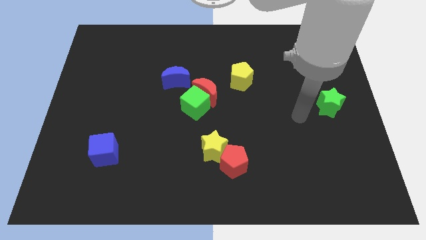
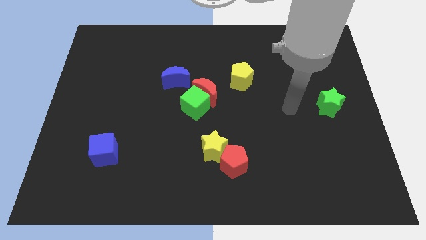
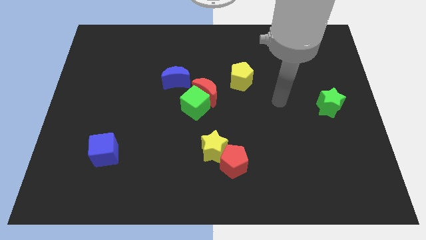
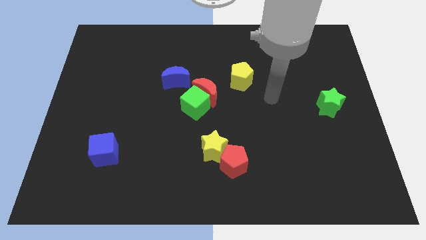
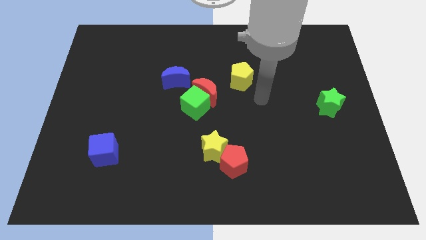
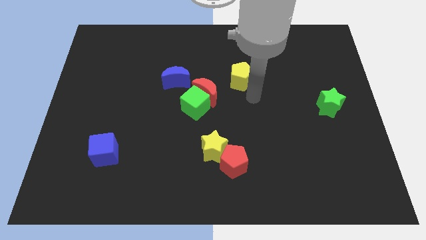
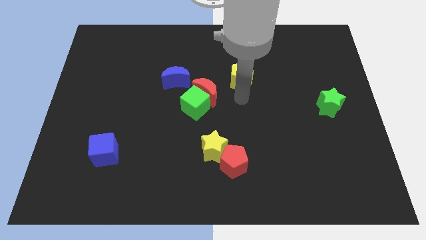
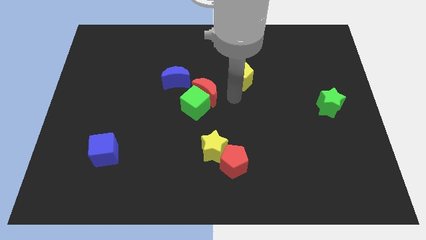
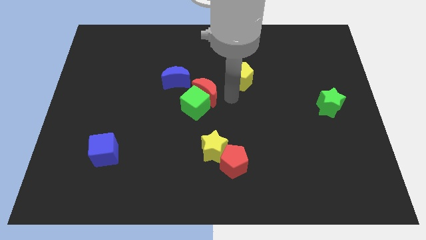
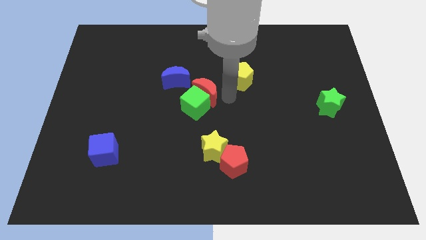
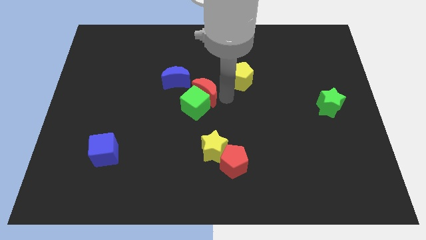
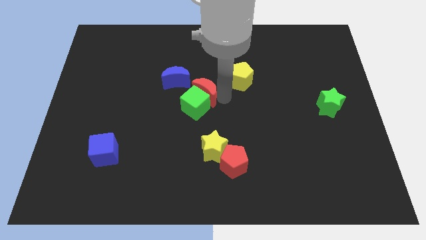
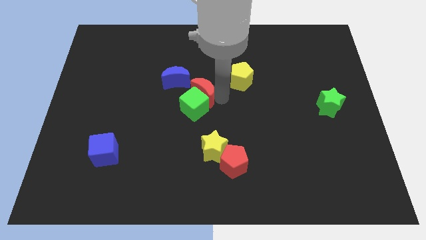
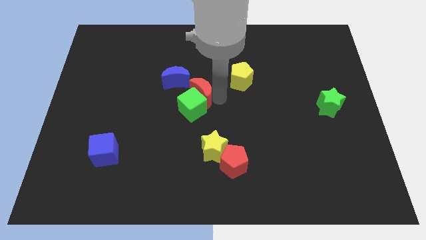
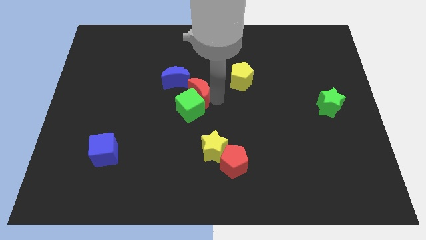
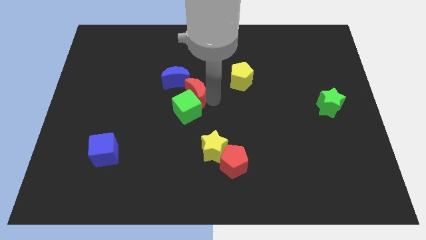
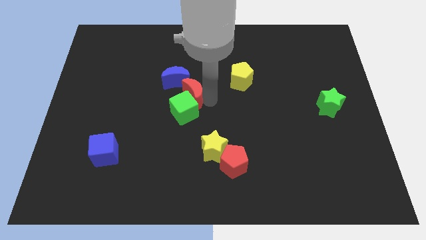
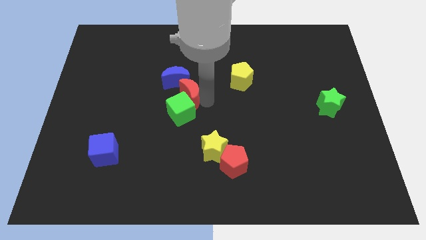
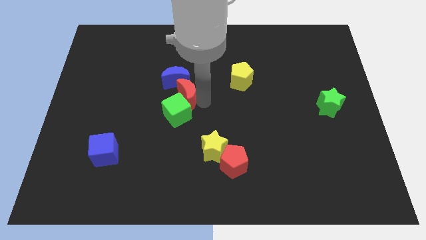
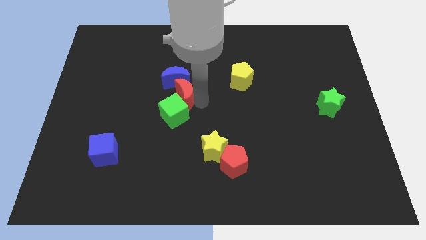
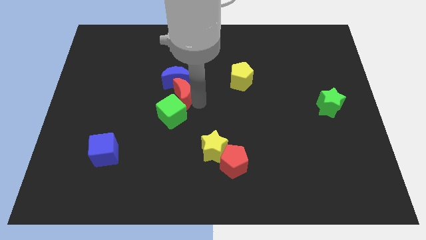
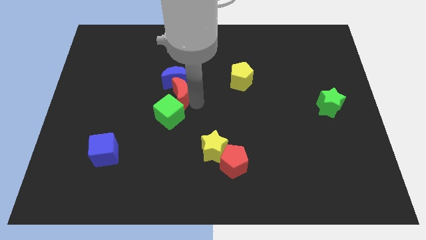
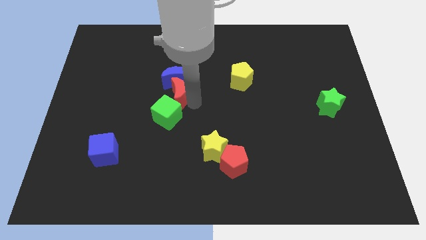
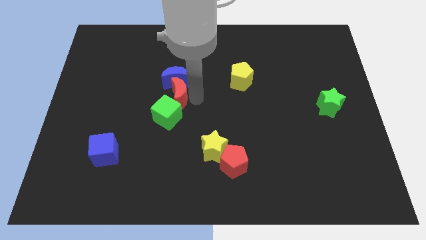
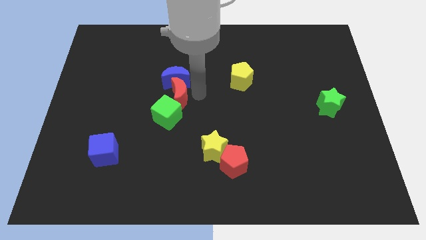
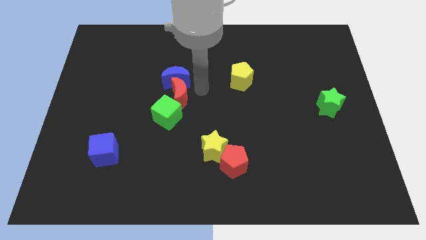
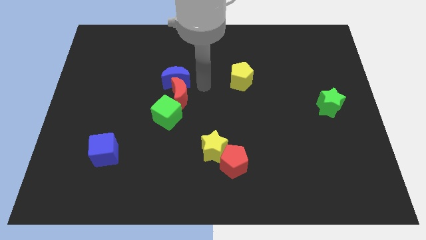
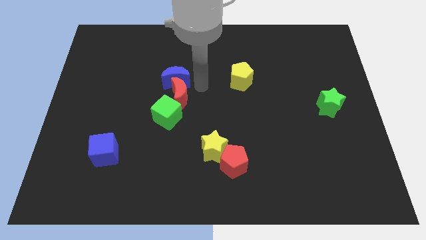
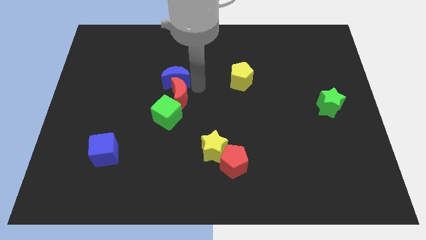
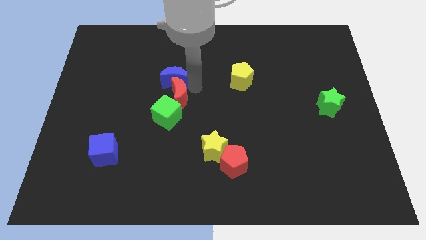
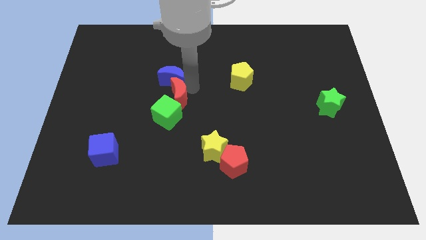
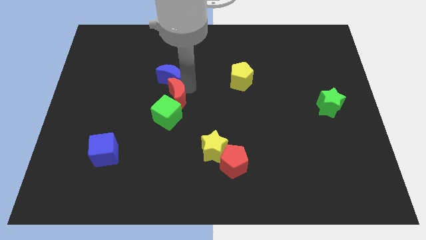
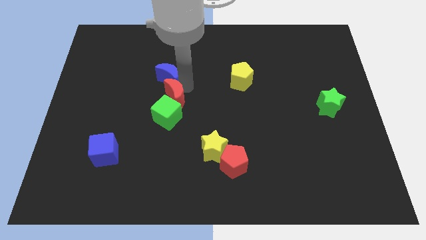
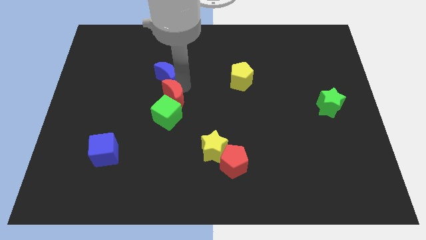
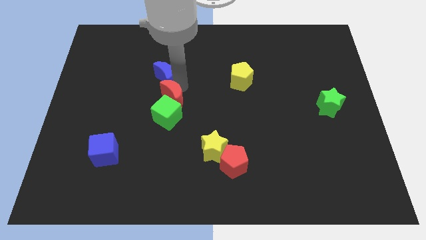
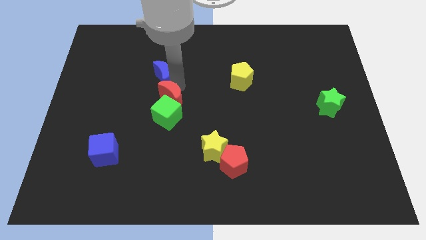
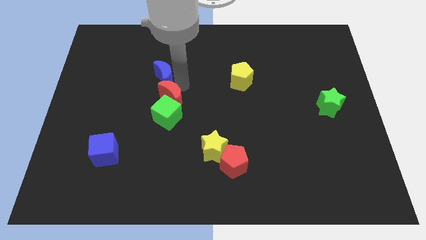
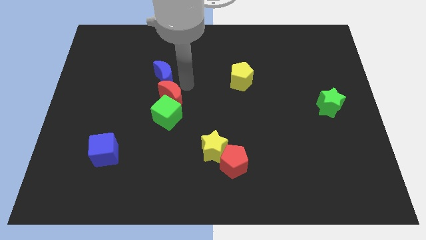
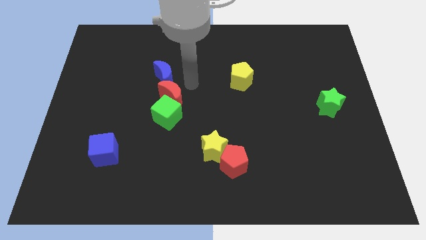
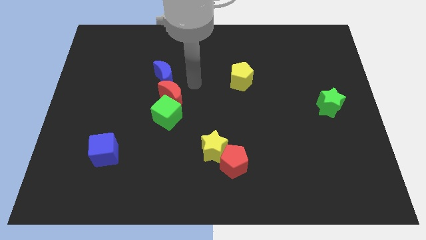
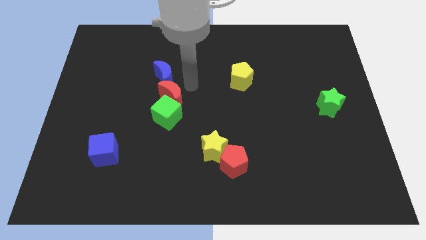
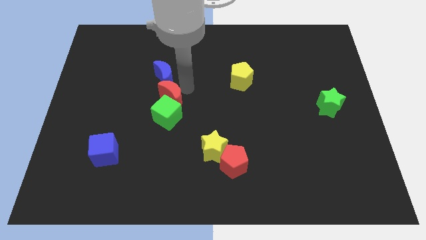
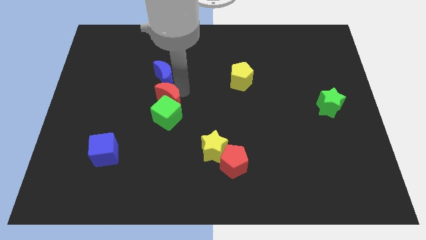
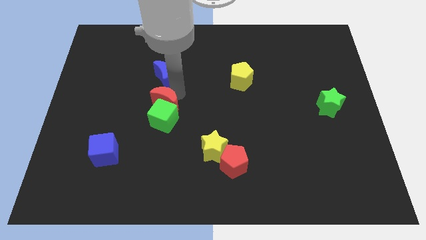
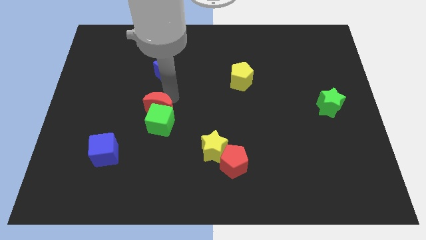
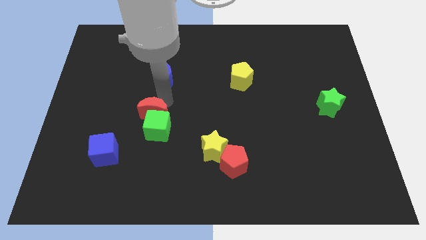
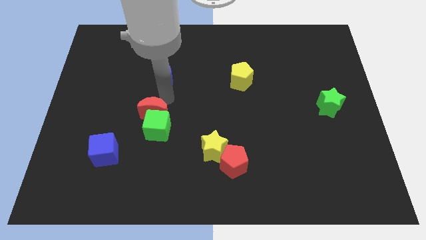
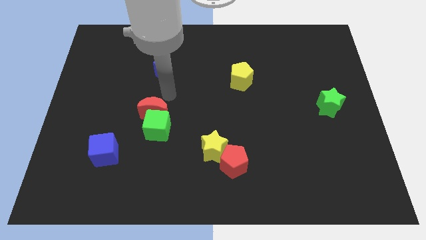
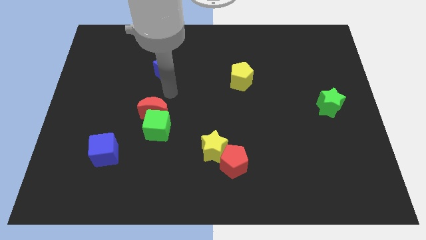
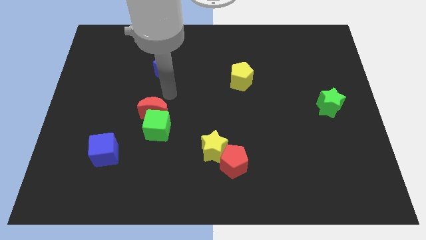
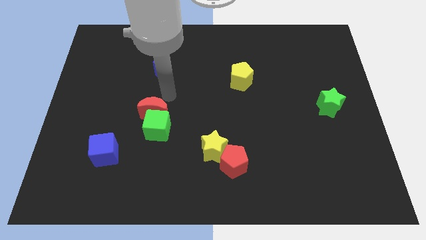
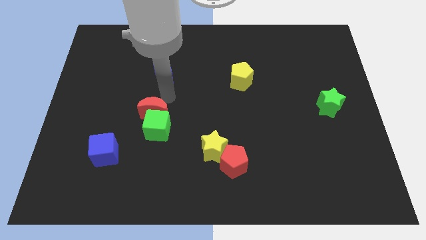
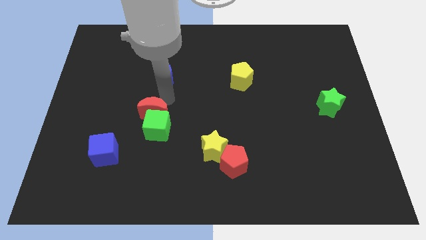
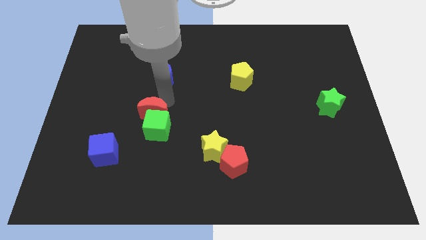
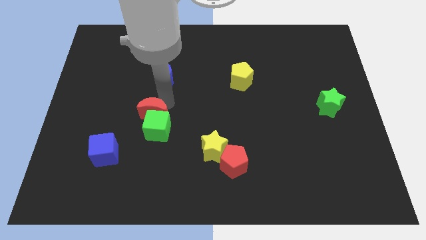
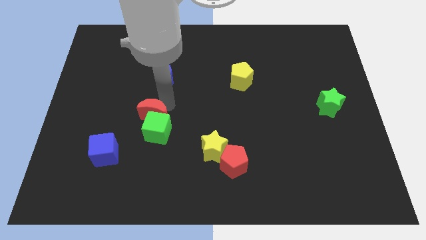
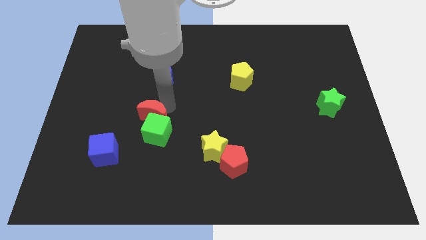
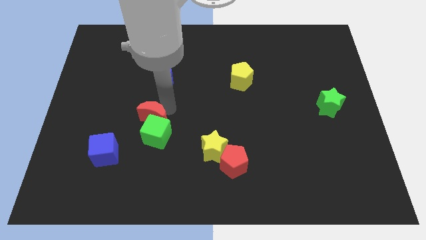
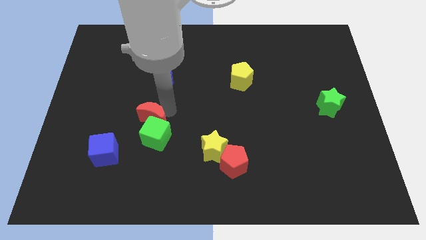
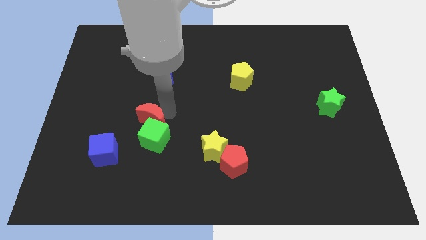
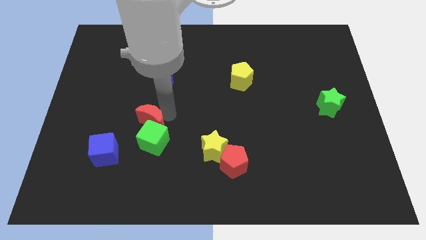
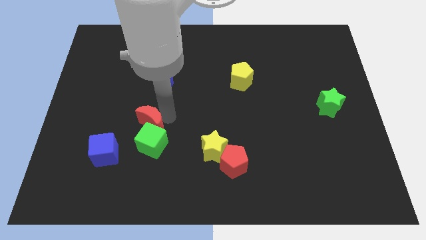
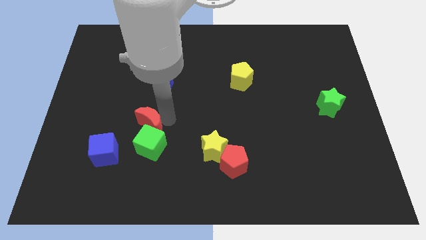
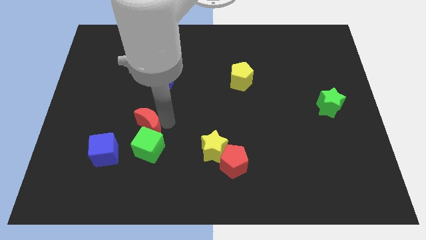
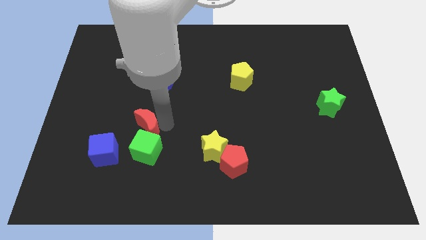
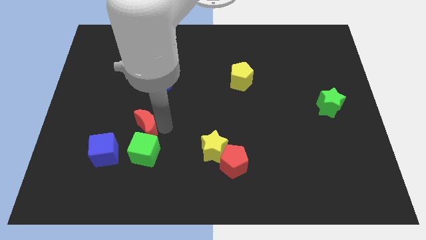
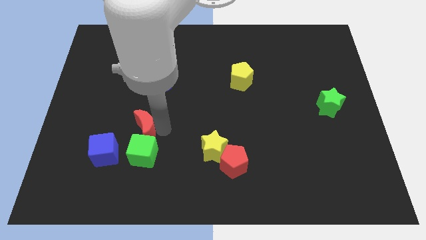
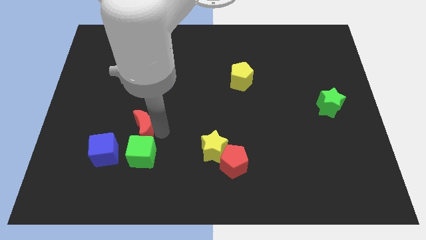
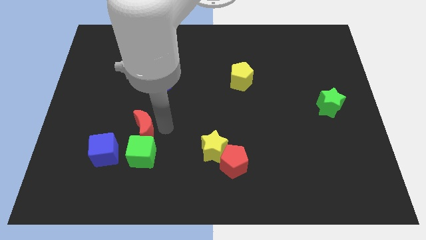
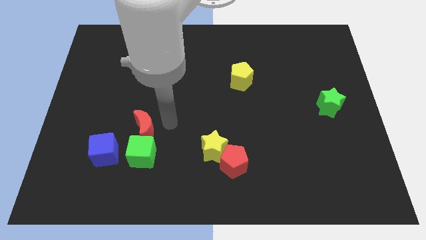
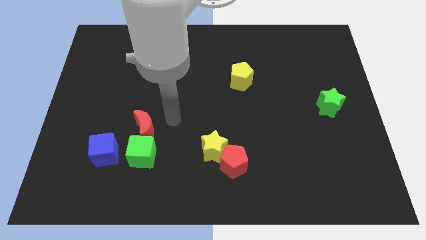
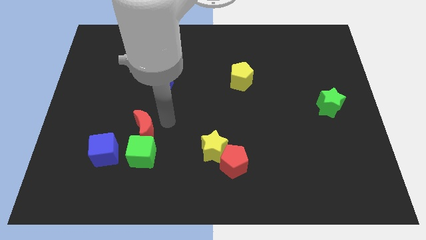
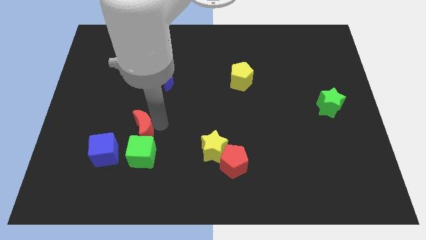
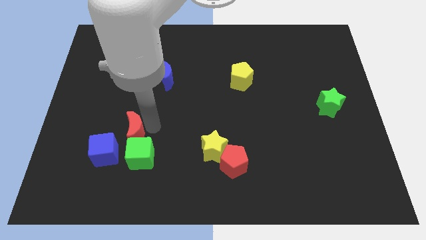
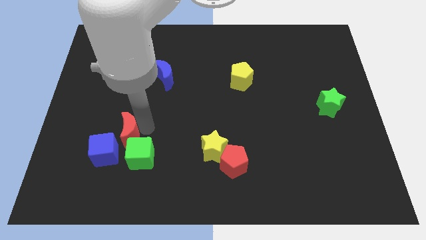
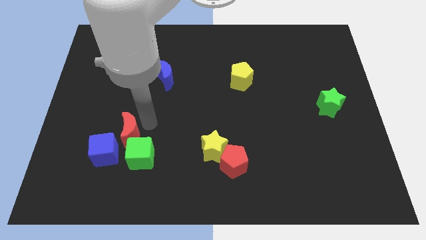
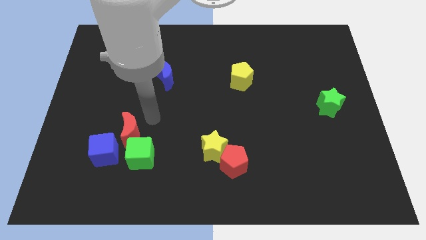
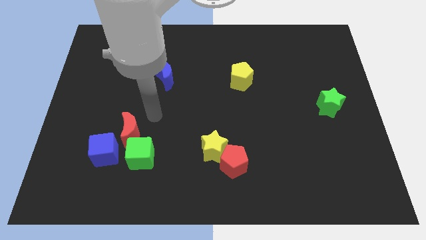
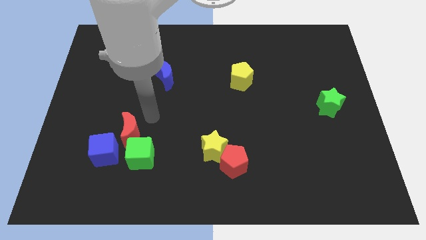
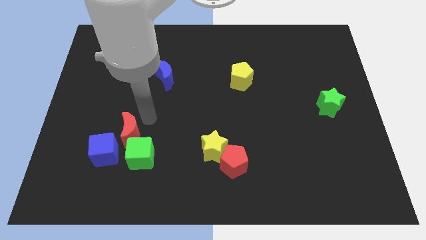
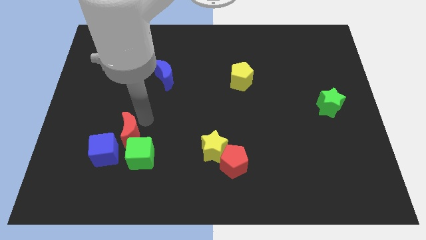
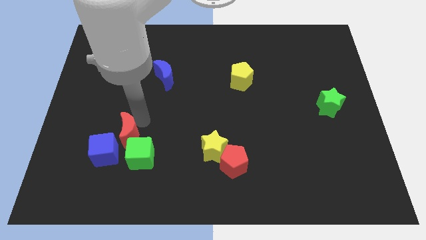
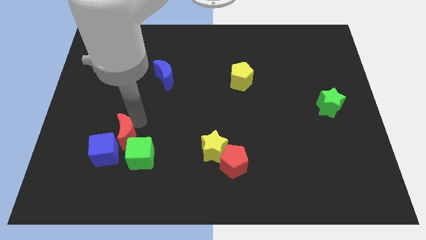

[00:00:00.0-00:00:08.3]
slide the red moon close to the blue cube
